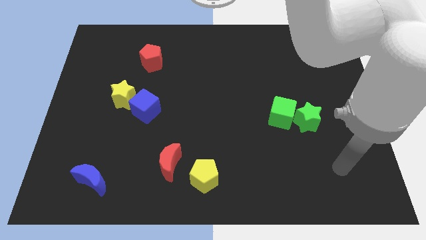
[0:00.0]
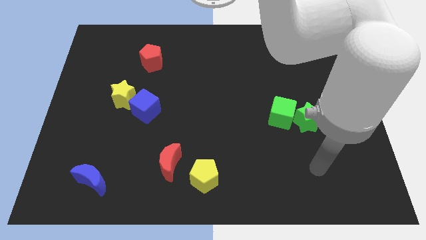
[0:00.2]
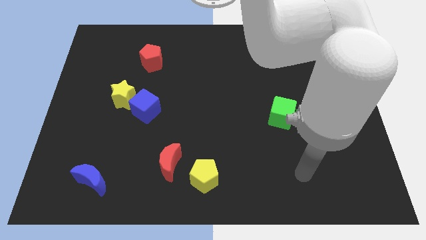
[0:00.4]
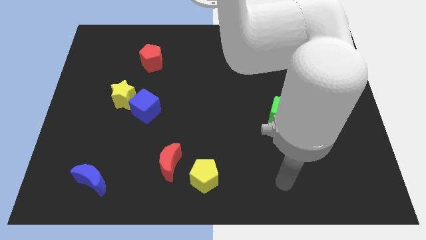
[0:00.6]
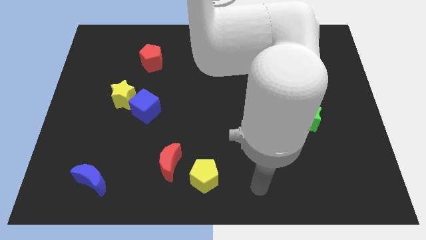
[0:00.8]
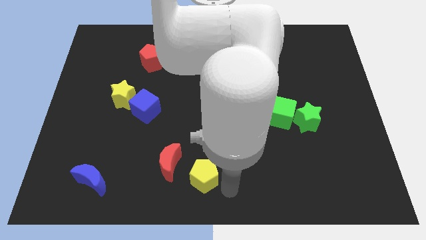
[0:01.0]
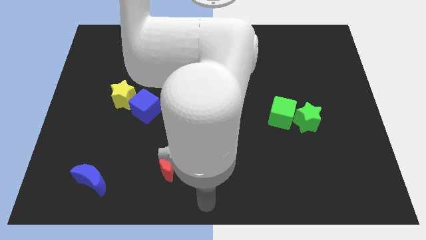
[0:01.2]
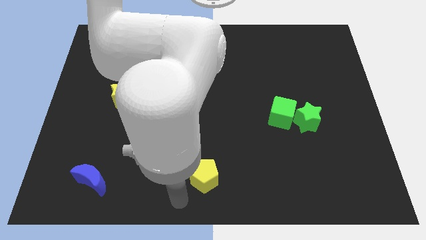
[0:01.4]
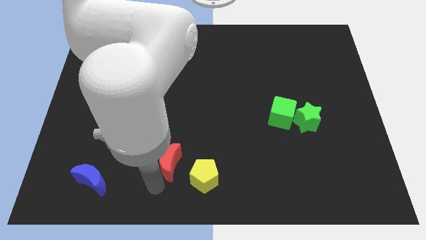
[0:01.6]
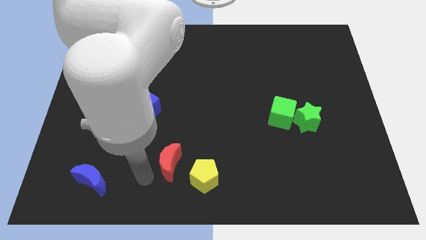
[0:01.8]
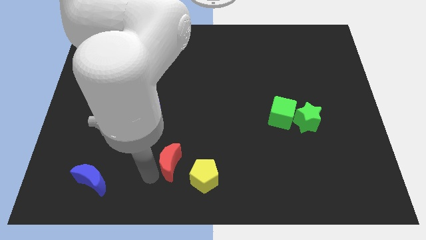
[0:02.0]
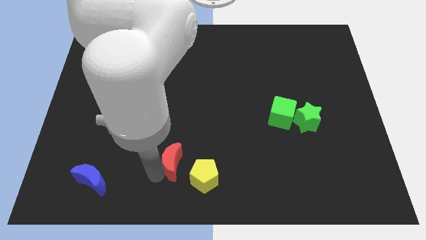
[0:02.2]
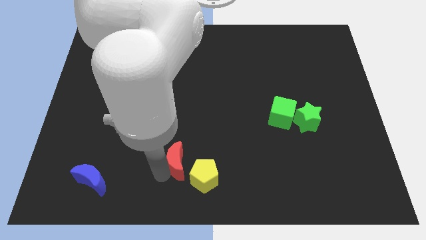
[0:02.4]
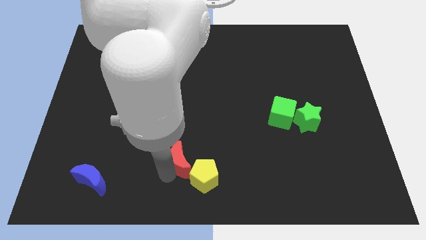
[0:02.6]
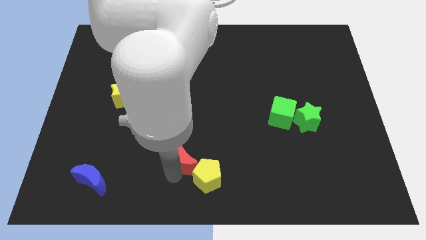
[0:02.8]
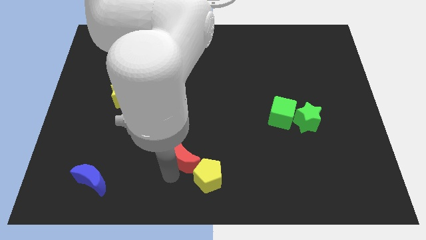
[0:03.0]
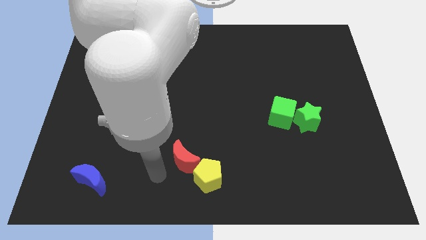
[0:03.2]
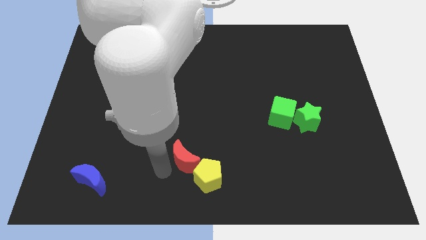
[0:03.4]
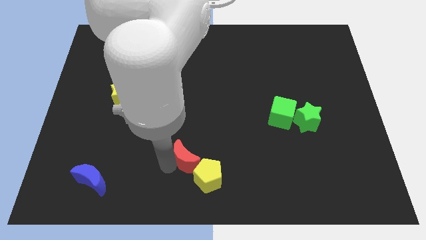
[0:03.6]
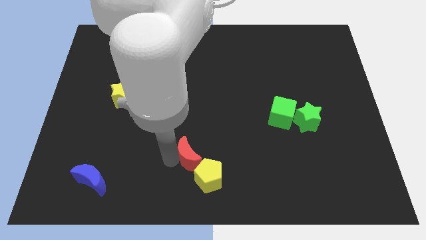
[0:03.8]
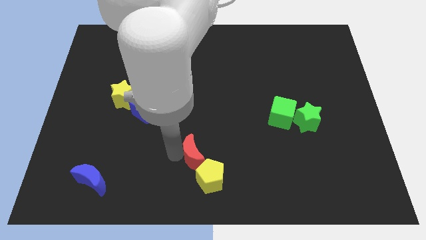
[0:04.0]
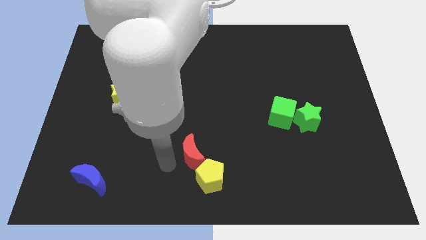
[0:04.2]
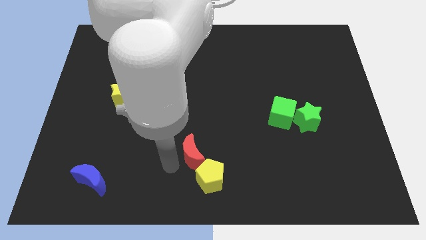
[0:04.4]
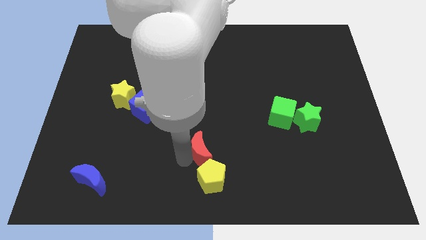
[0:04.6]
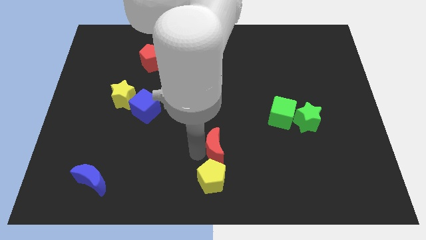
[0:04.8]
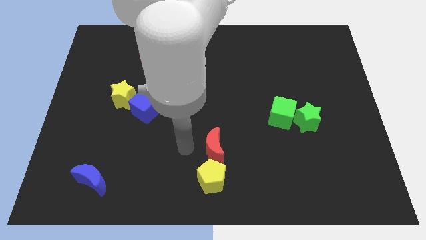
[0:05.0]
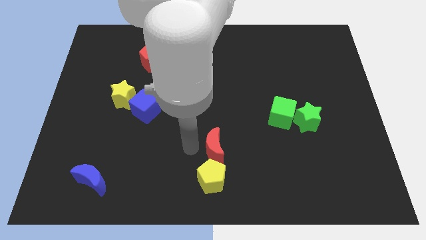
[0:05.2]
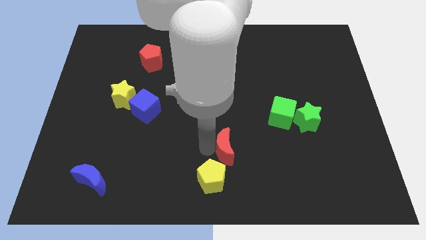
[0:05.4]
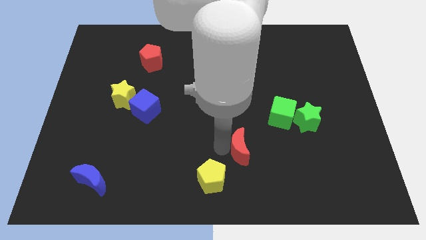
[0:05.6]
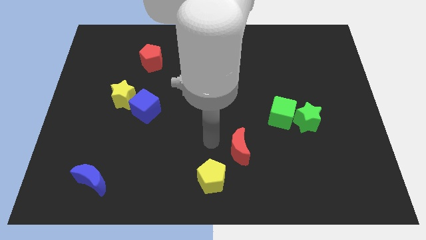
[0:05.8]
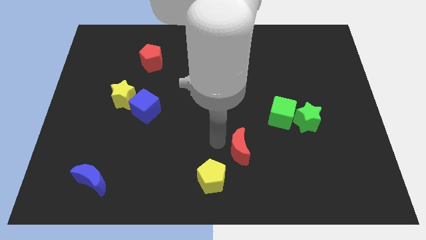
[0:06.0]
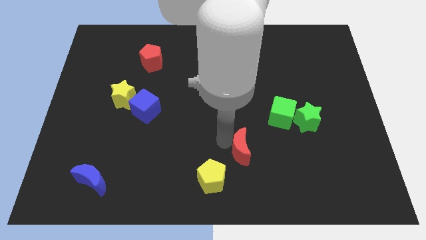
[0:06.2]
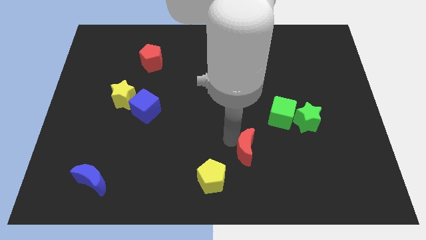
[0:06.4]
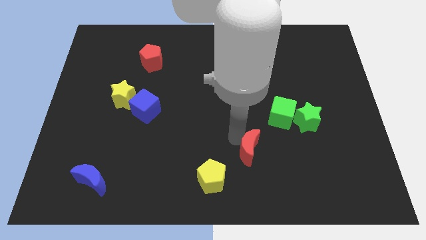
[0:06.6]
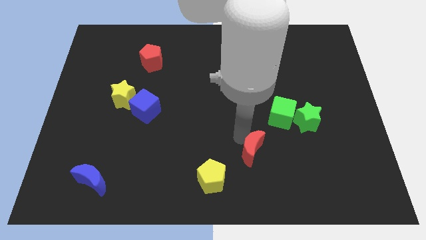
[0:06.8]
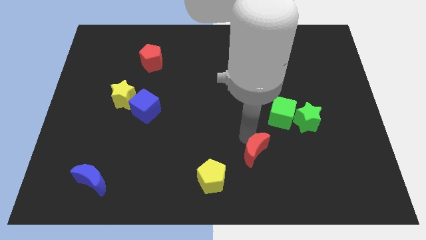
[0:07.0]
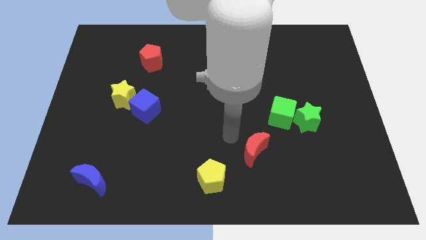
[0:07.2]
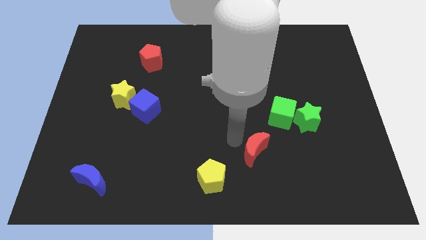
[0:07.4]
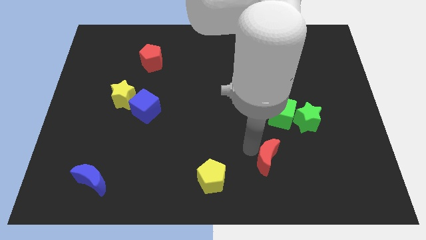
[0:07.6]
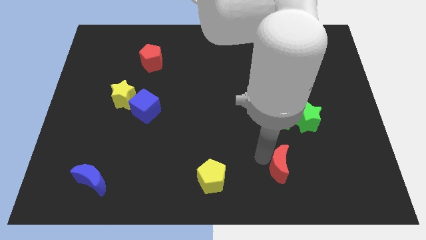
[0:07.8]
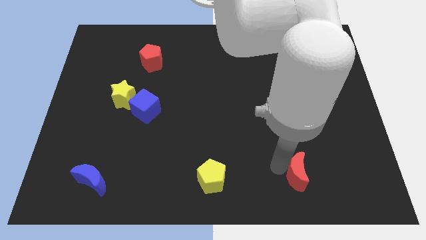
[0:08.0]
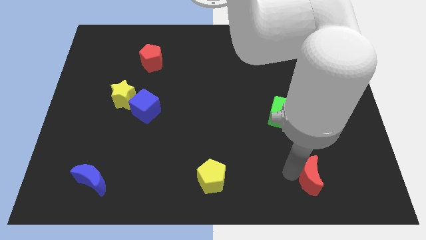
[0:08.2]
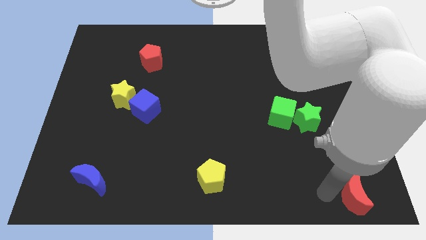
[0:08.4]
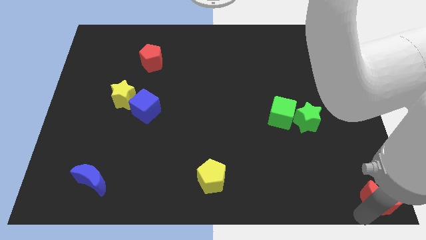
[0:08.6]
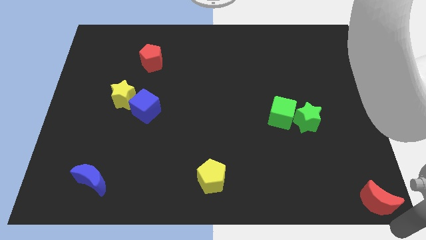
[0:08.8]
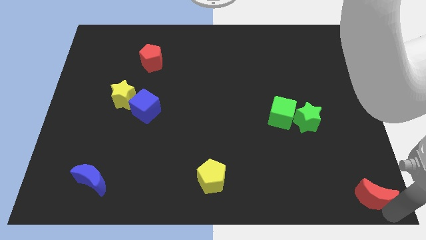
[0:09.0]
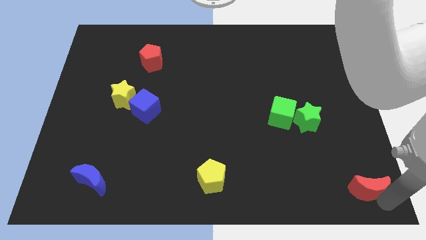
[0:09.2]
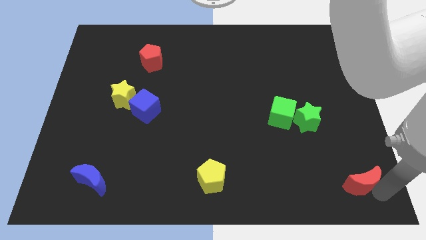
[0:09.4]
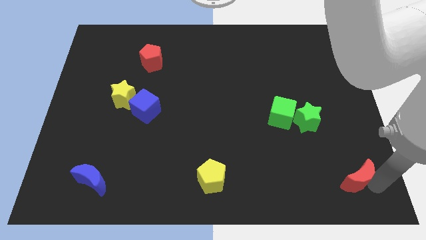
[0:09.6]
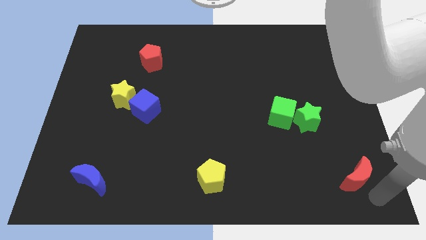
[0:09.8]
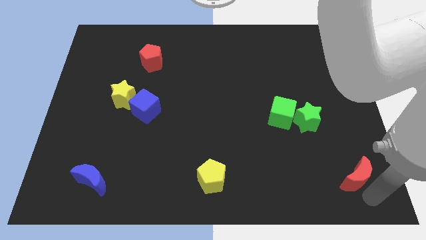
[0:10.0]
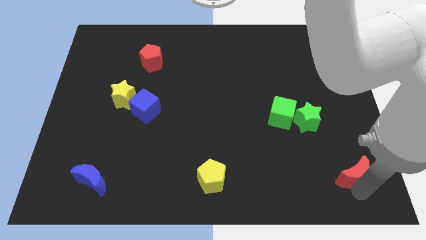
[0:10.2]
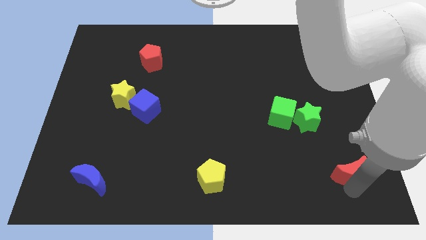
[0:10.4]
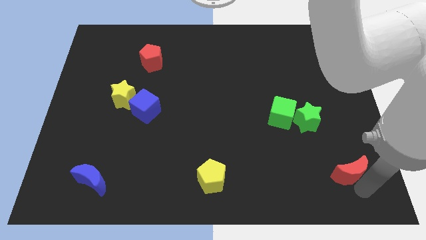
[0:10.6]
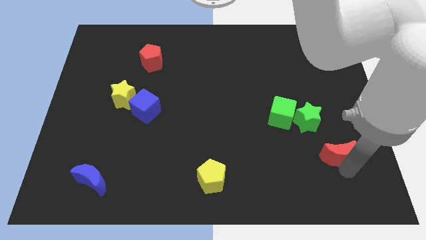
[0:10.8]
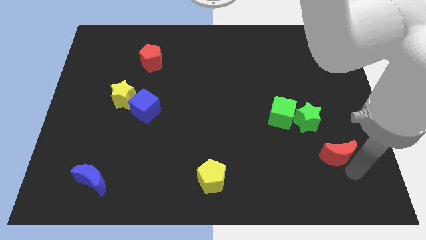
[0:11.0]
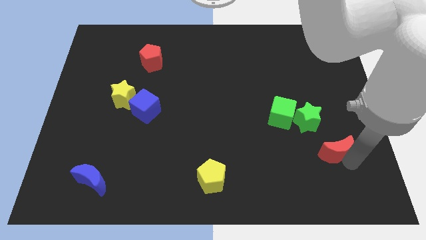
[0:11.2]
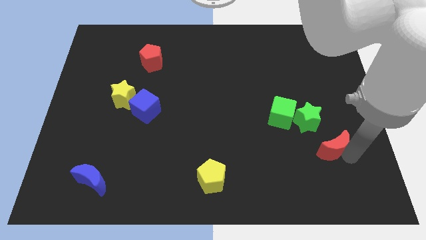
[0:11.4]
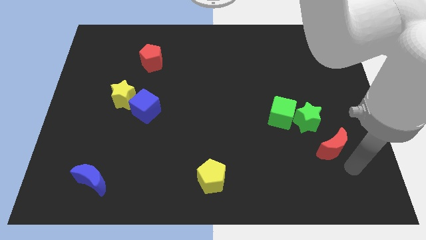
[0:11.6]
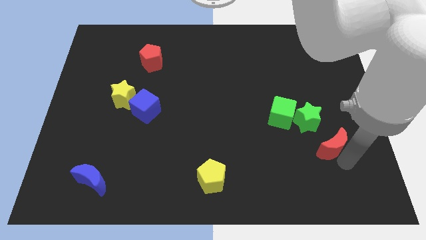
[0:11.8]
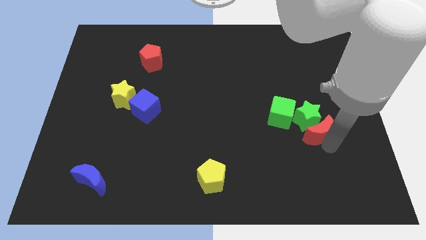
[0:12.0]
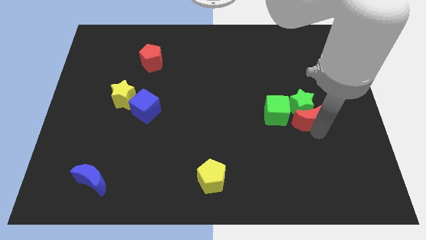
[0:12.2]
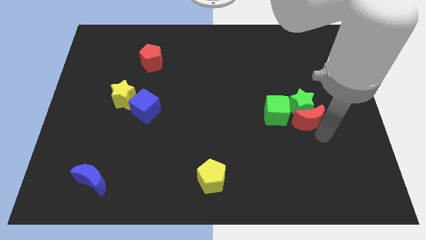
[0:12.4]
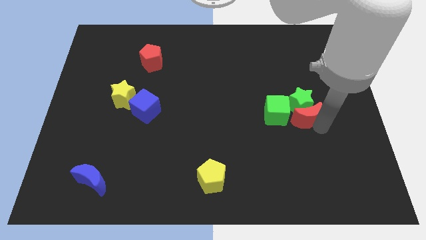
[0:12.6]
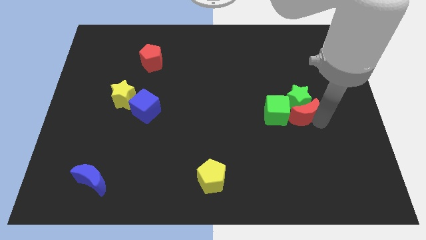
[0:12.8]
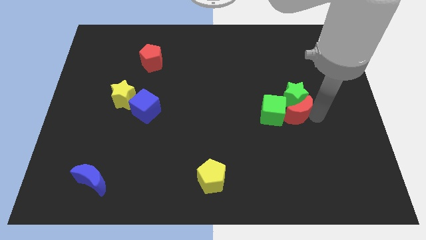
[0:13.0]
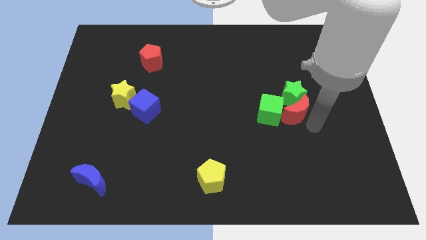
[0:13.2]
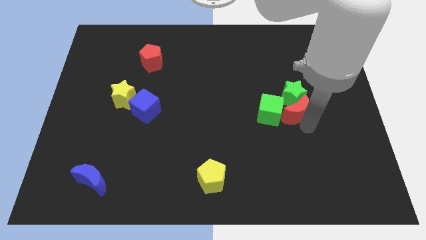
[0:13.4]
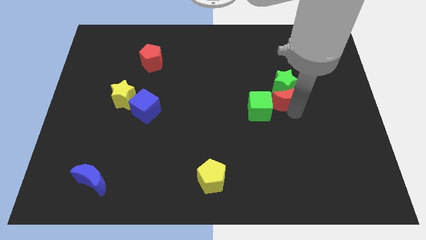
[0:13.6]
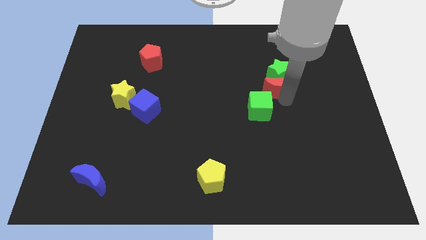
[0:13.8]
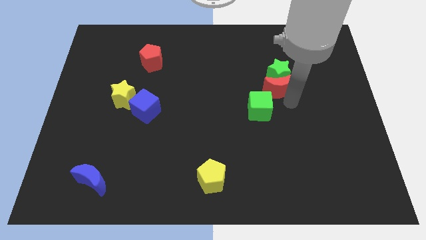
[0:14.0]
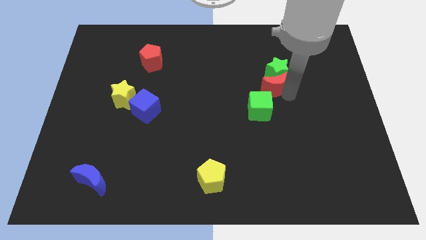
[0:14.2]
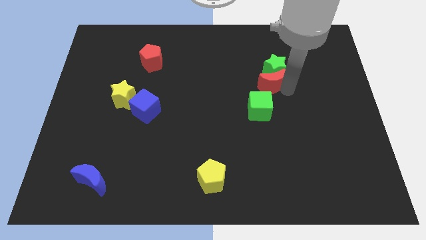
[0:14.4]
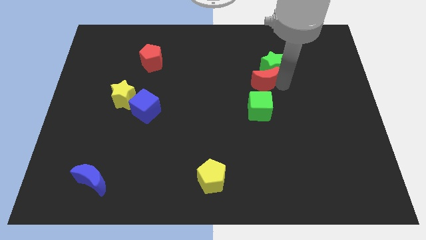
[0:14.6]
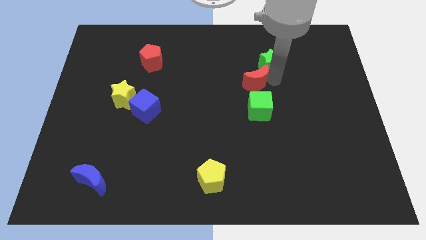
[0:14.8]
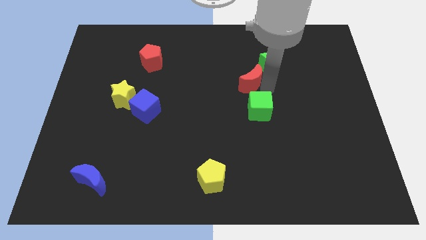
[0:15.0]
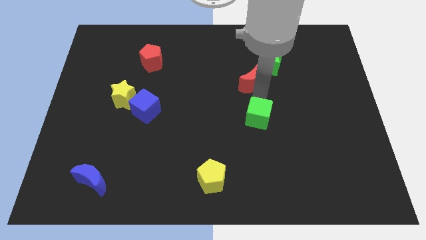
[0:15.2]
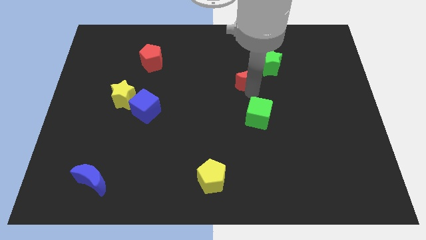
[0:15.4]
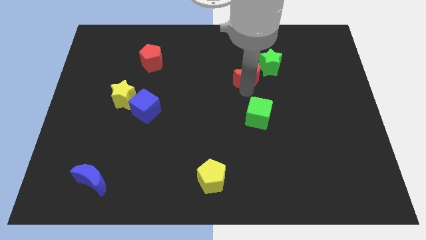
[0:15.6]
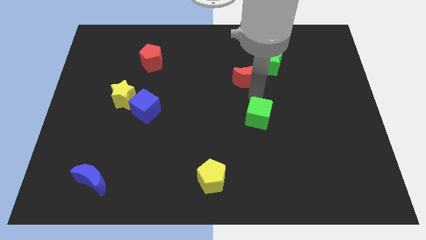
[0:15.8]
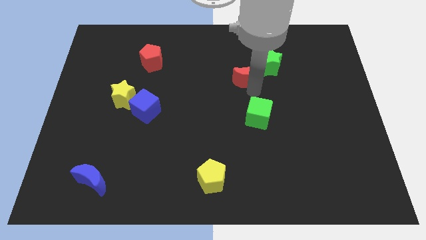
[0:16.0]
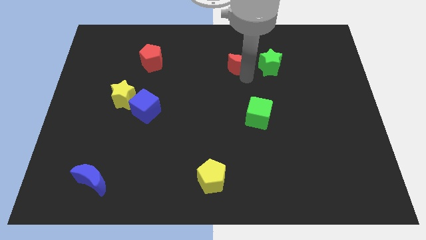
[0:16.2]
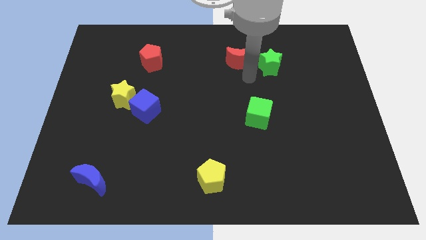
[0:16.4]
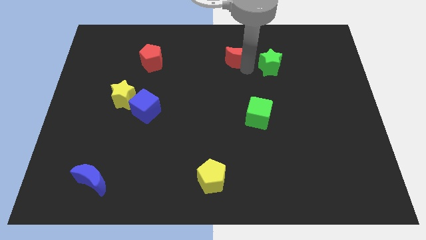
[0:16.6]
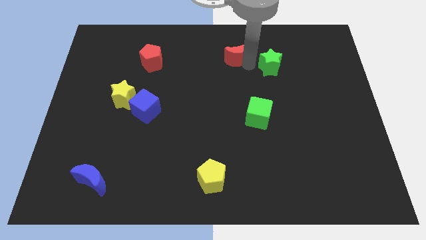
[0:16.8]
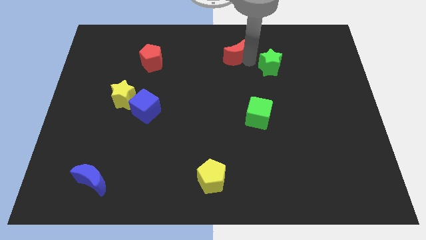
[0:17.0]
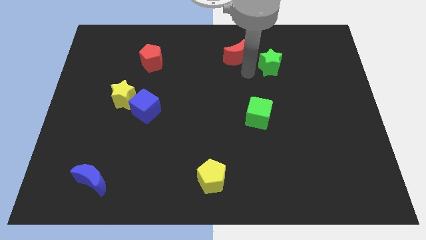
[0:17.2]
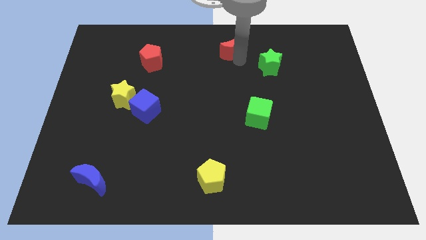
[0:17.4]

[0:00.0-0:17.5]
push the red moon to the top
